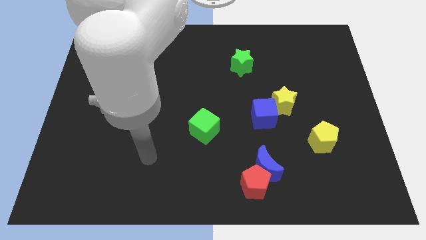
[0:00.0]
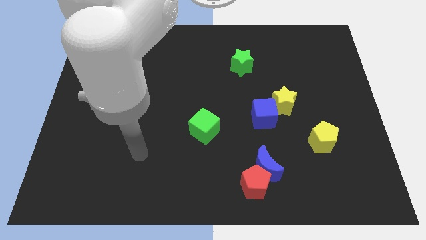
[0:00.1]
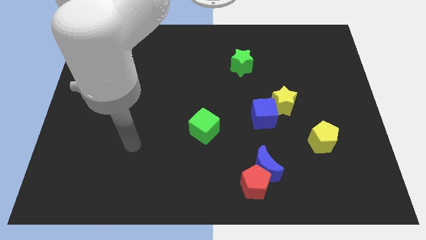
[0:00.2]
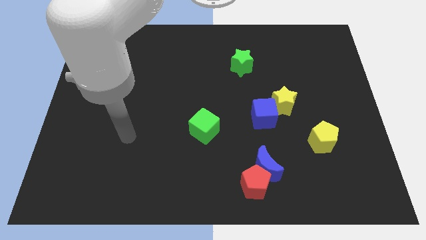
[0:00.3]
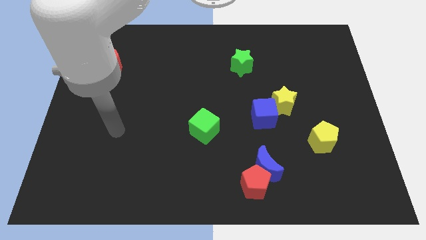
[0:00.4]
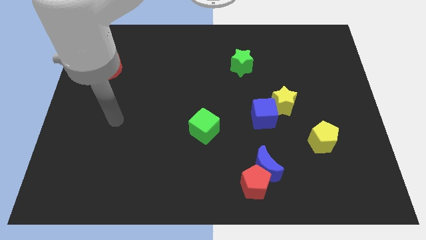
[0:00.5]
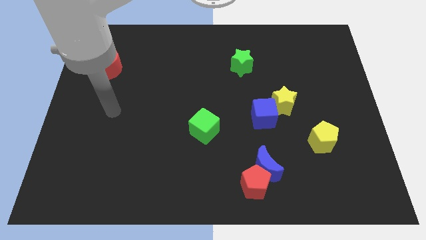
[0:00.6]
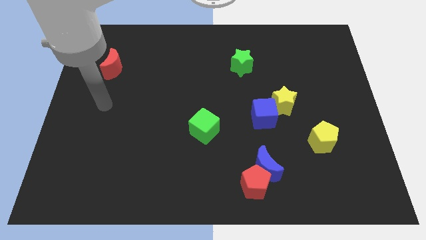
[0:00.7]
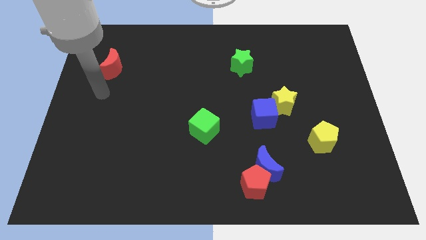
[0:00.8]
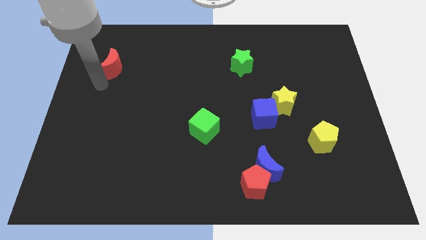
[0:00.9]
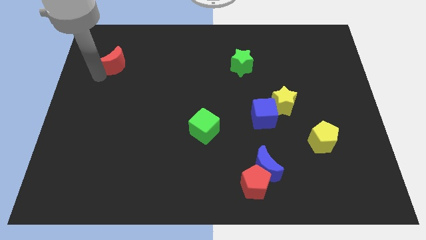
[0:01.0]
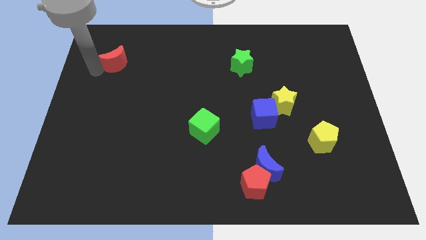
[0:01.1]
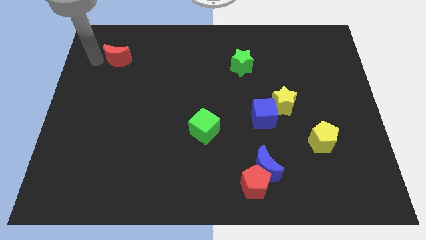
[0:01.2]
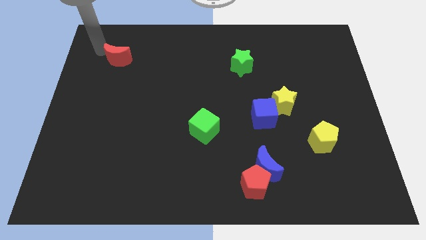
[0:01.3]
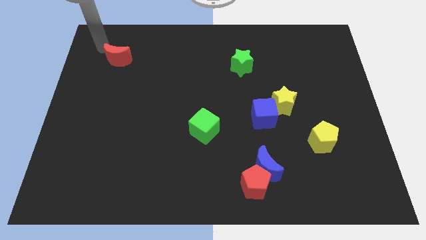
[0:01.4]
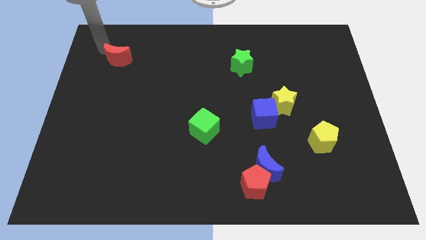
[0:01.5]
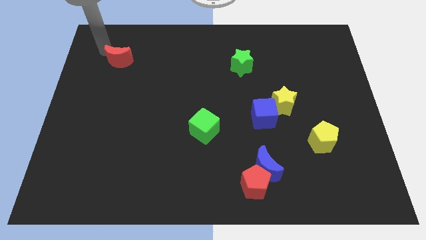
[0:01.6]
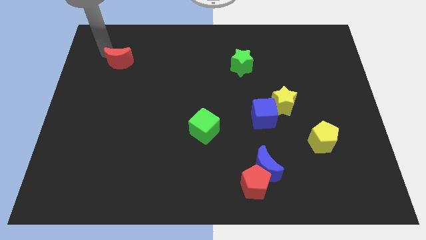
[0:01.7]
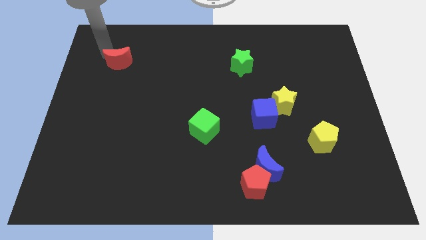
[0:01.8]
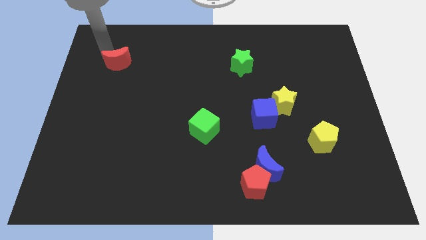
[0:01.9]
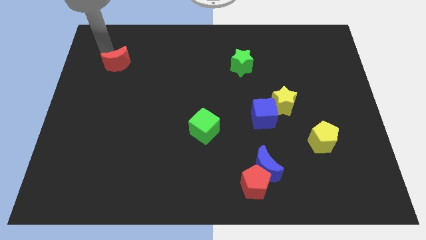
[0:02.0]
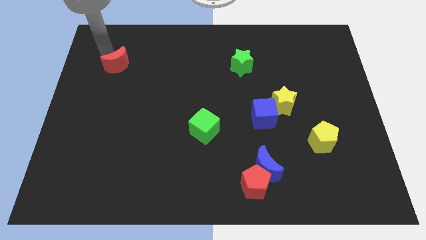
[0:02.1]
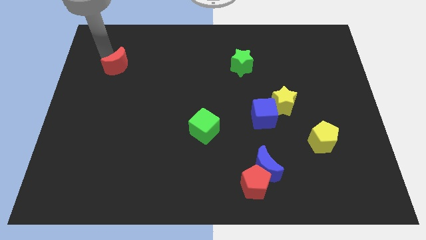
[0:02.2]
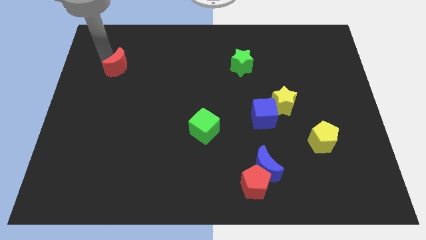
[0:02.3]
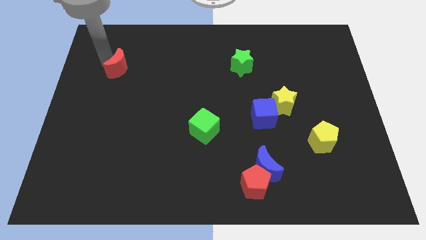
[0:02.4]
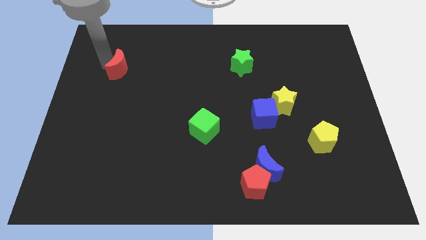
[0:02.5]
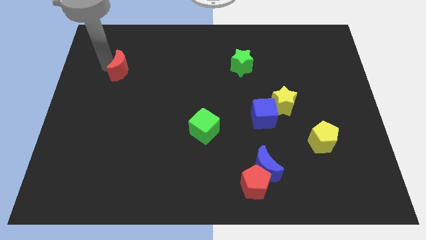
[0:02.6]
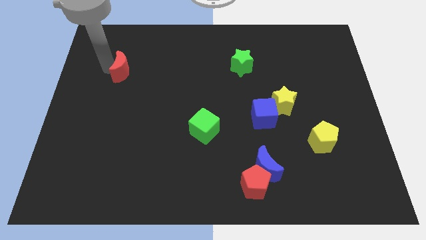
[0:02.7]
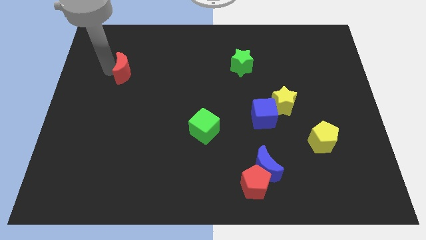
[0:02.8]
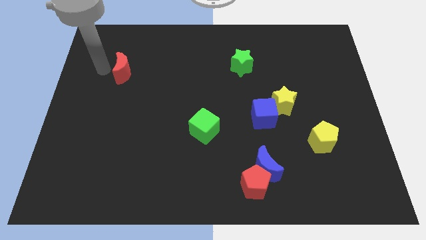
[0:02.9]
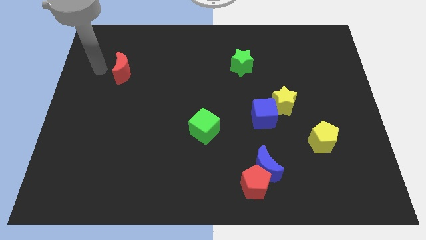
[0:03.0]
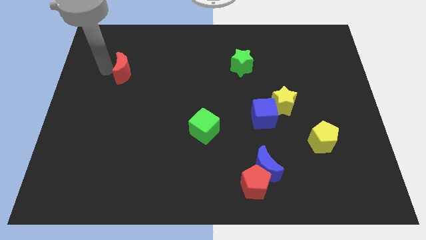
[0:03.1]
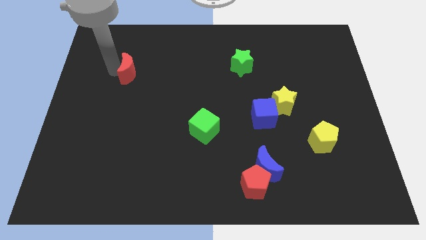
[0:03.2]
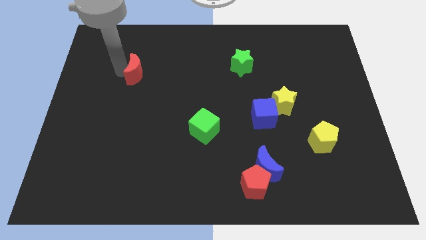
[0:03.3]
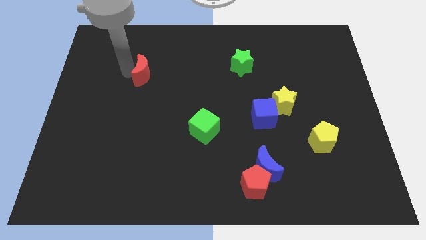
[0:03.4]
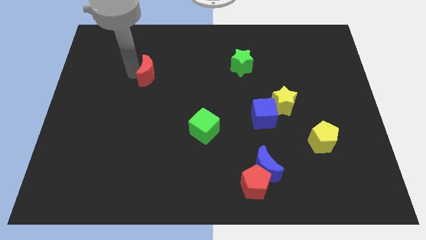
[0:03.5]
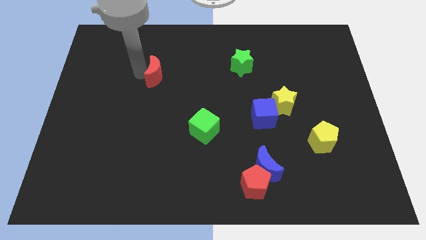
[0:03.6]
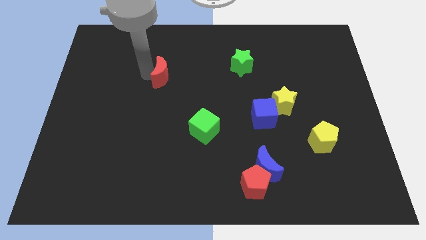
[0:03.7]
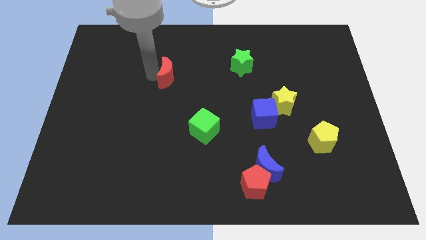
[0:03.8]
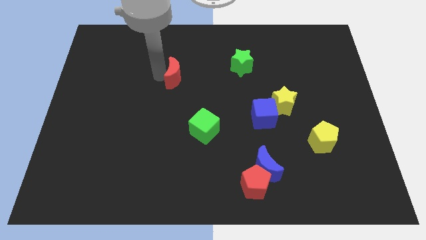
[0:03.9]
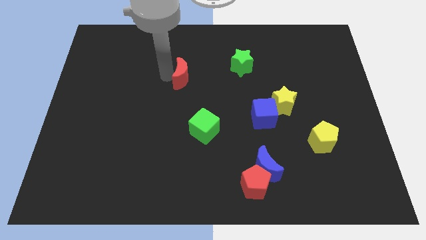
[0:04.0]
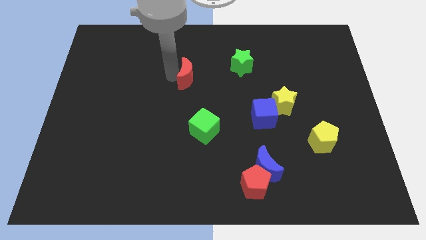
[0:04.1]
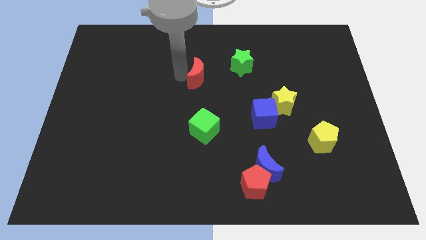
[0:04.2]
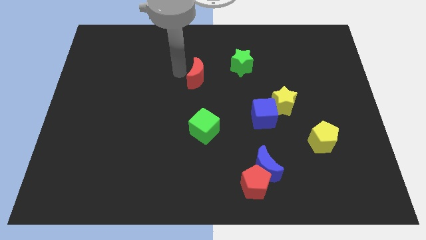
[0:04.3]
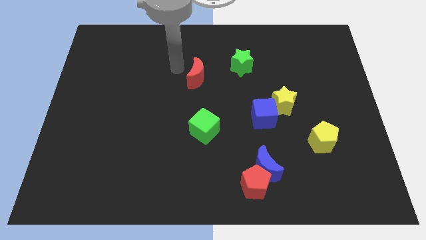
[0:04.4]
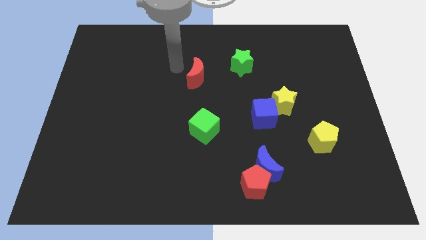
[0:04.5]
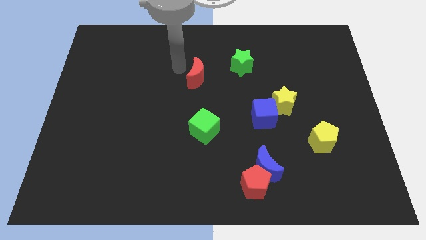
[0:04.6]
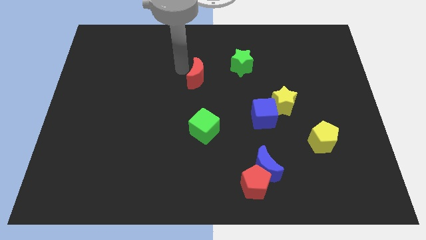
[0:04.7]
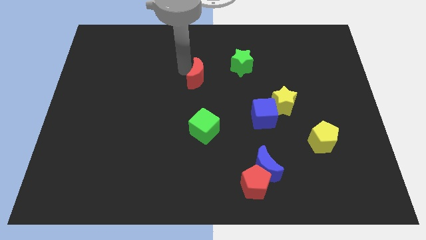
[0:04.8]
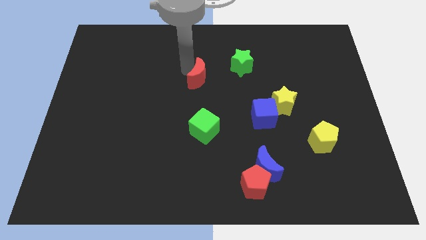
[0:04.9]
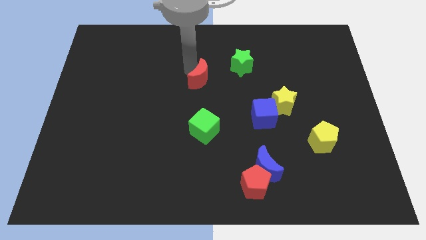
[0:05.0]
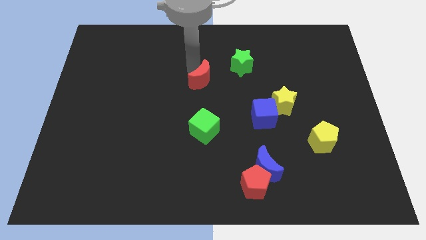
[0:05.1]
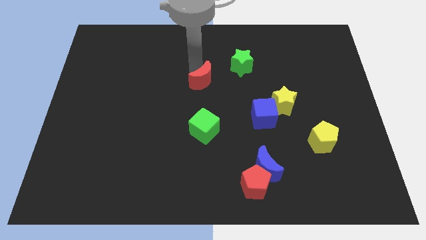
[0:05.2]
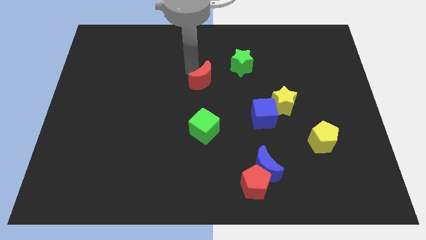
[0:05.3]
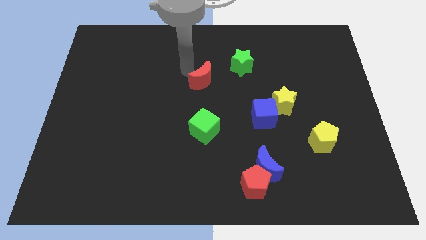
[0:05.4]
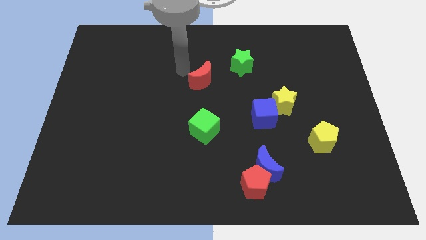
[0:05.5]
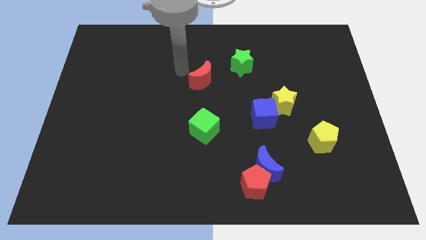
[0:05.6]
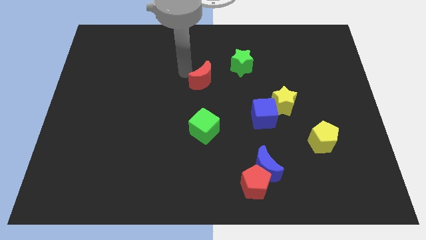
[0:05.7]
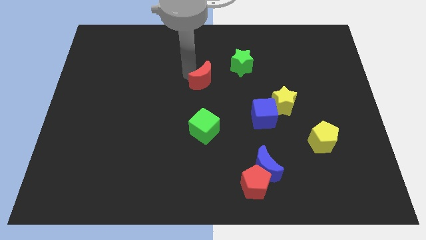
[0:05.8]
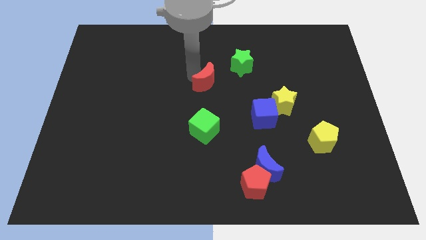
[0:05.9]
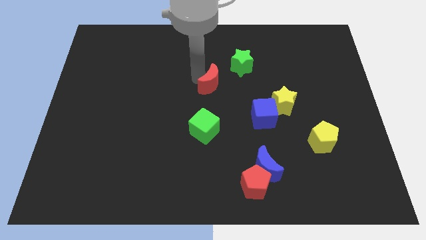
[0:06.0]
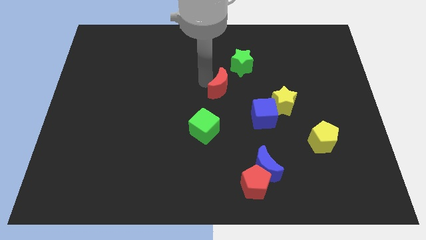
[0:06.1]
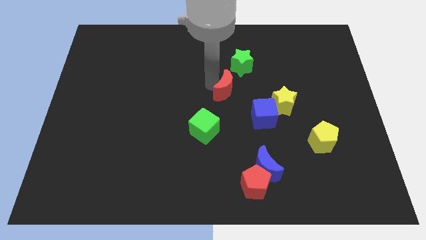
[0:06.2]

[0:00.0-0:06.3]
put the red moon to the bottom of the green star

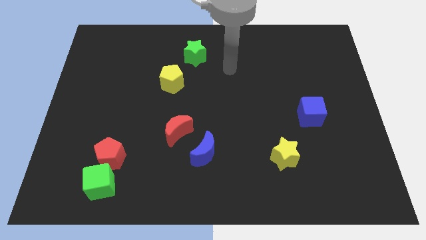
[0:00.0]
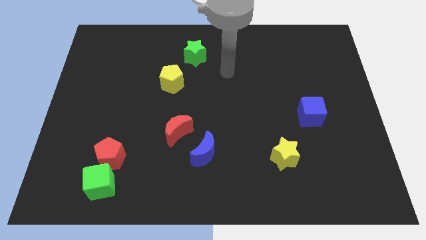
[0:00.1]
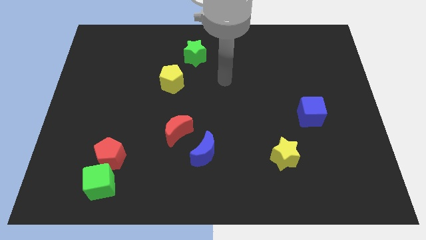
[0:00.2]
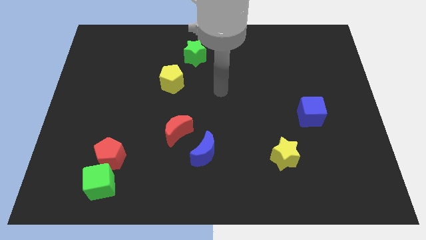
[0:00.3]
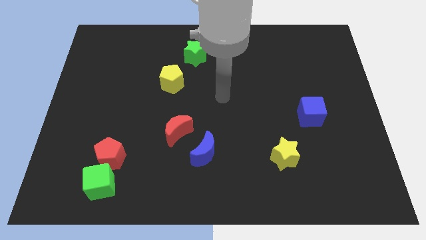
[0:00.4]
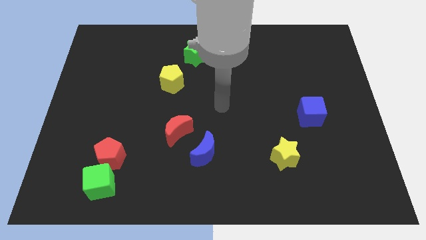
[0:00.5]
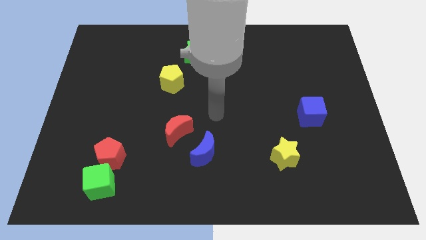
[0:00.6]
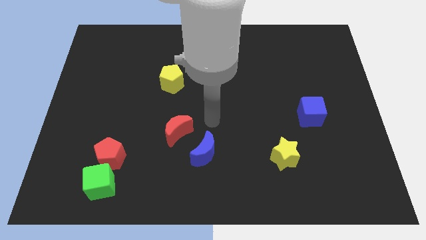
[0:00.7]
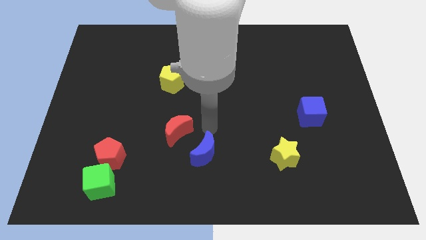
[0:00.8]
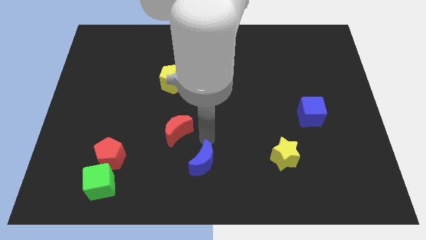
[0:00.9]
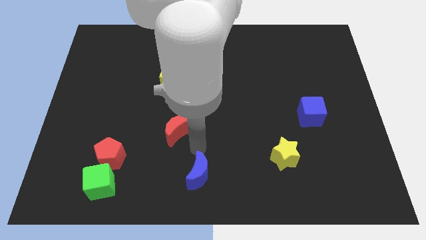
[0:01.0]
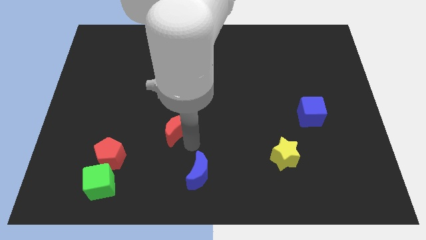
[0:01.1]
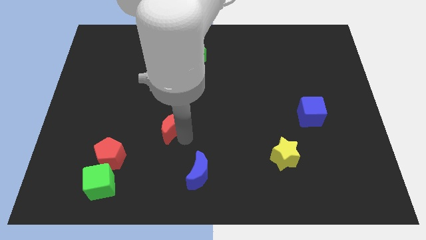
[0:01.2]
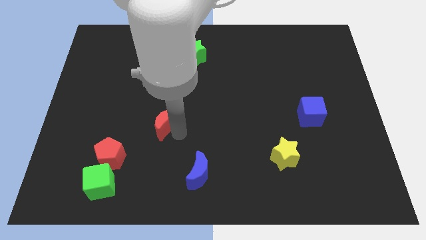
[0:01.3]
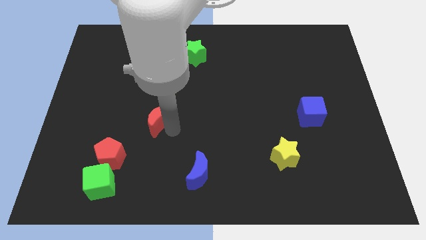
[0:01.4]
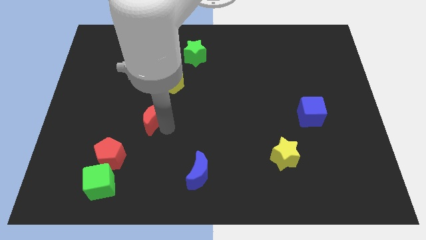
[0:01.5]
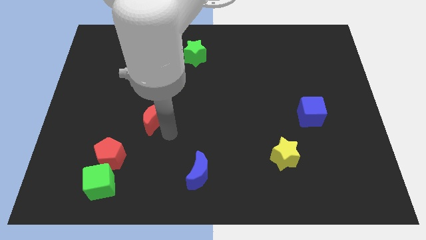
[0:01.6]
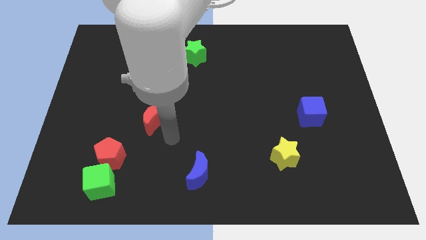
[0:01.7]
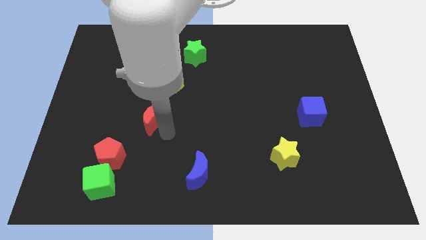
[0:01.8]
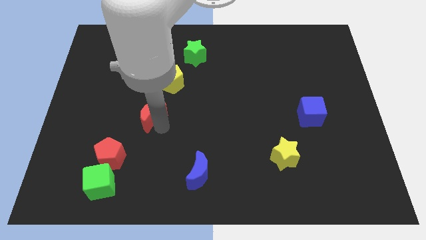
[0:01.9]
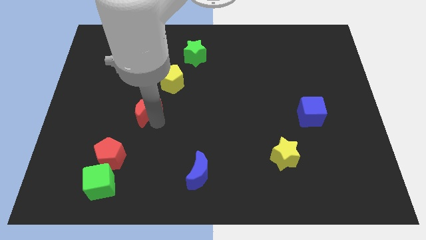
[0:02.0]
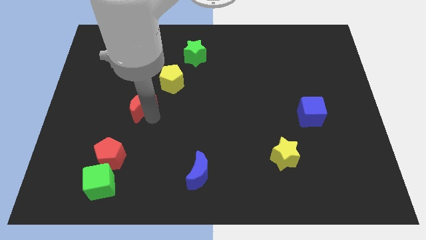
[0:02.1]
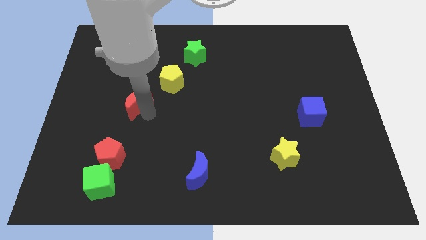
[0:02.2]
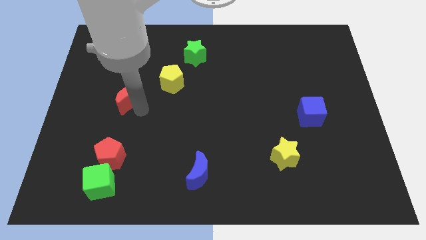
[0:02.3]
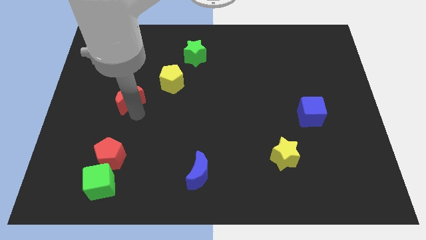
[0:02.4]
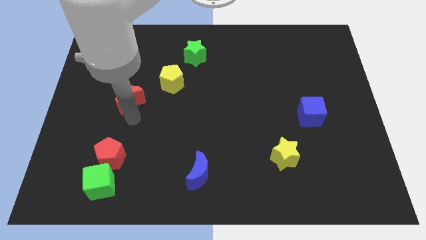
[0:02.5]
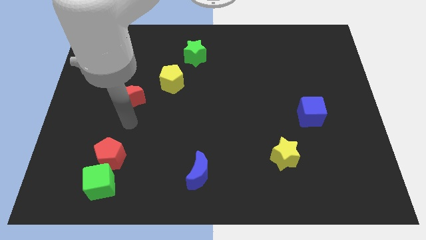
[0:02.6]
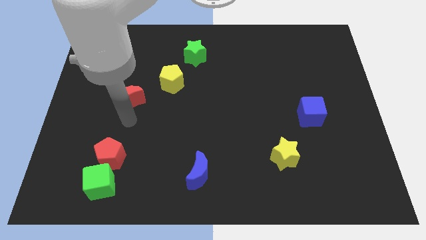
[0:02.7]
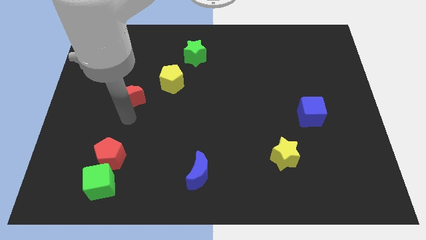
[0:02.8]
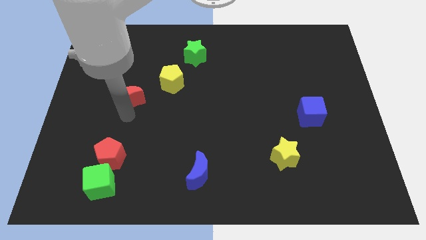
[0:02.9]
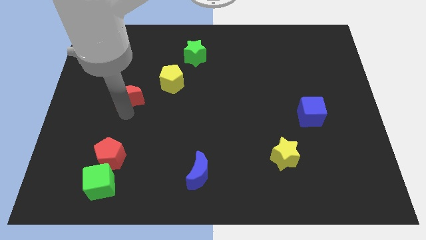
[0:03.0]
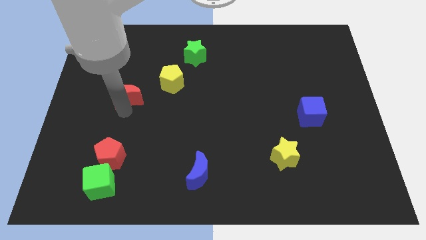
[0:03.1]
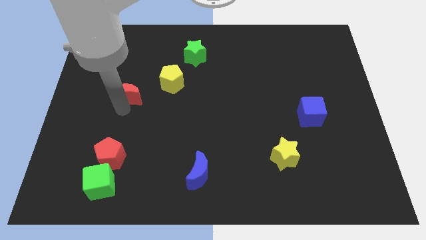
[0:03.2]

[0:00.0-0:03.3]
slide the red moon to the left of the yellow pentagon
